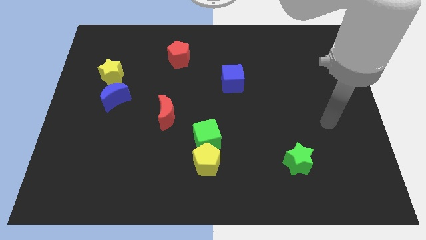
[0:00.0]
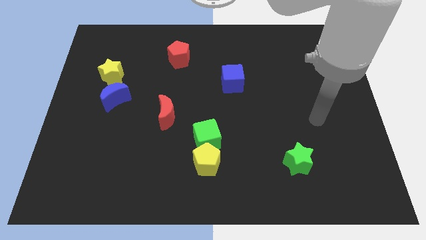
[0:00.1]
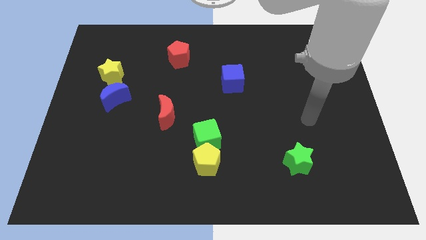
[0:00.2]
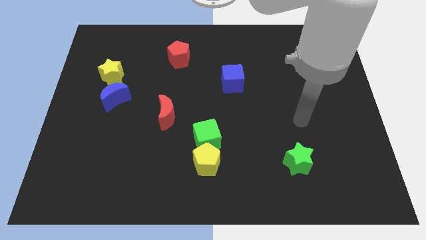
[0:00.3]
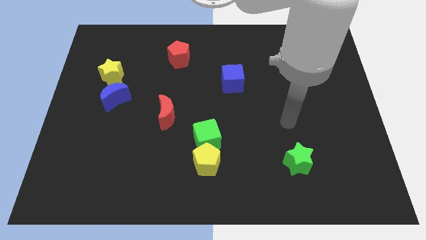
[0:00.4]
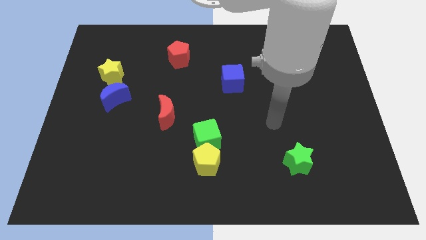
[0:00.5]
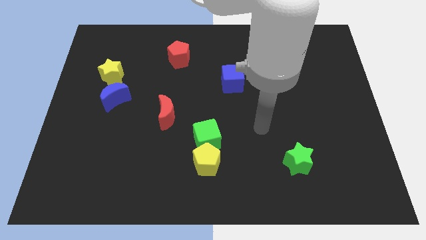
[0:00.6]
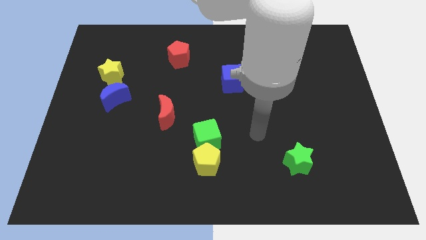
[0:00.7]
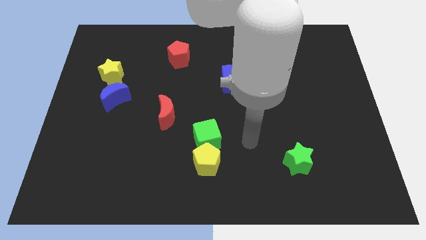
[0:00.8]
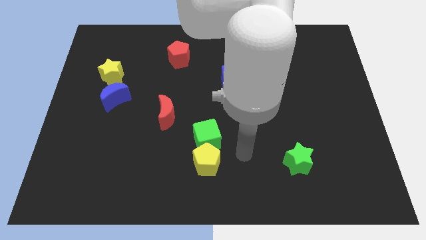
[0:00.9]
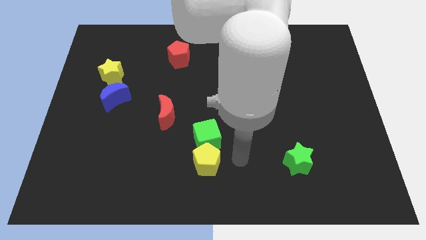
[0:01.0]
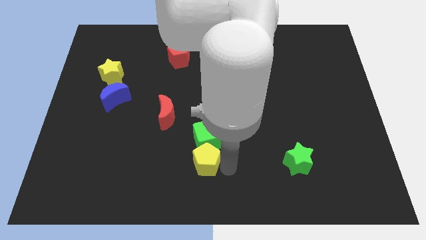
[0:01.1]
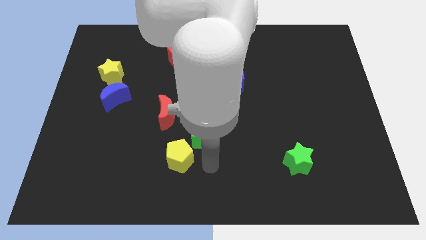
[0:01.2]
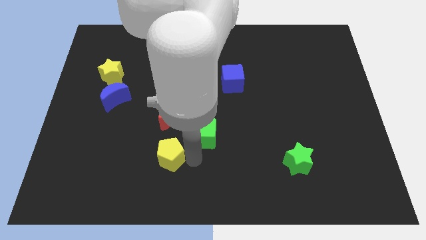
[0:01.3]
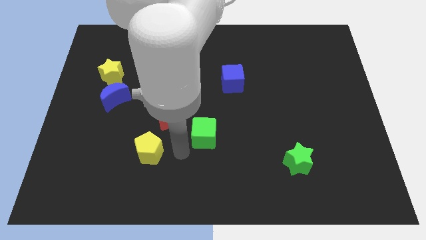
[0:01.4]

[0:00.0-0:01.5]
pull the green cube apart from the yellow pentagon

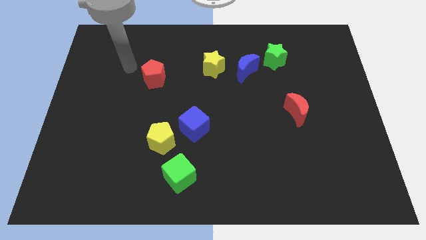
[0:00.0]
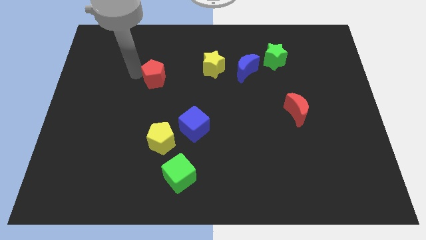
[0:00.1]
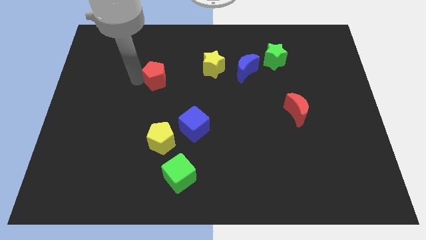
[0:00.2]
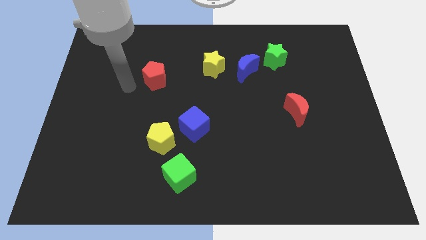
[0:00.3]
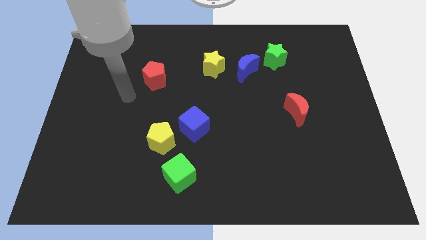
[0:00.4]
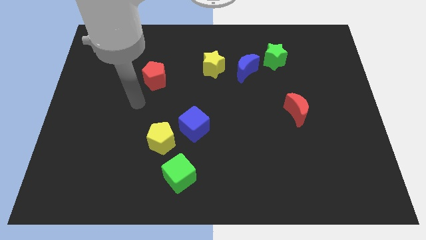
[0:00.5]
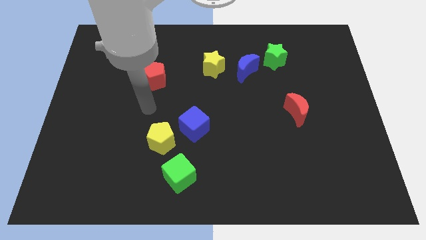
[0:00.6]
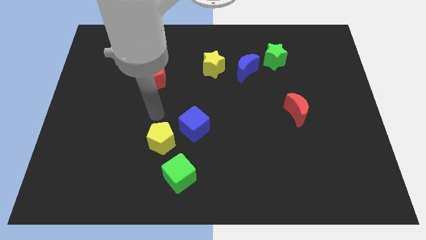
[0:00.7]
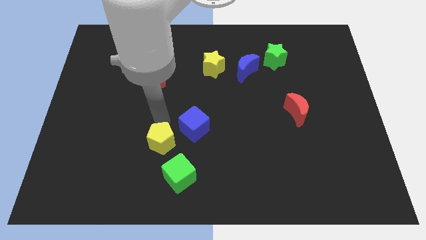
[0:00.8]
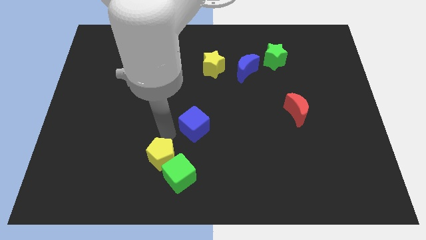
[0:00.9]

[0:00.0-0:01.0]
move the blue cube away from the yellow pentagon

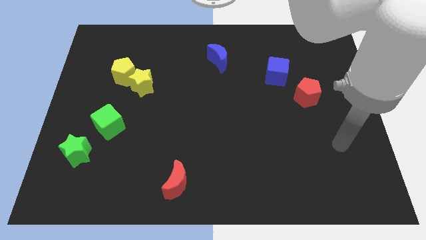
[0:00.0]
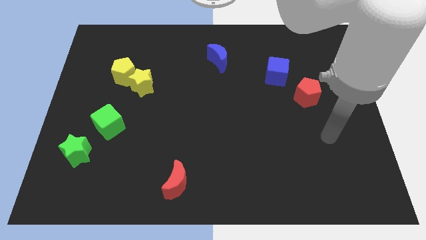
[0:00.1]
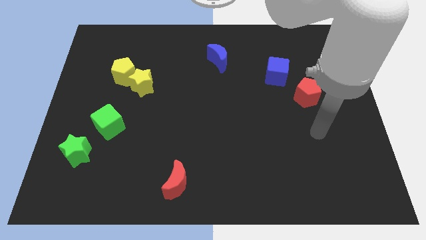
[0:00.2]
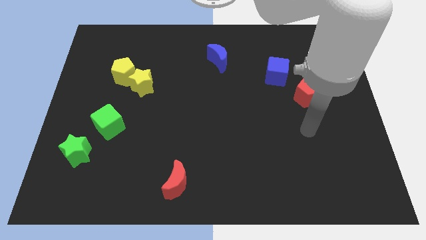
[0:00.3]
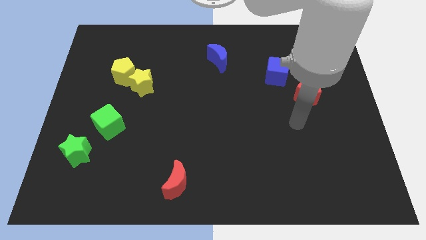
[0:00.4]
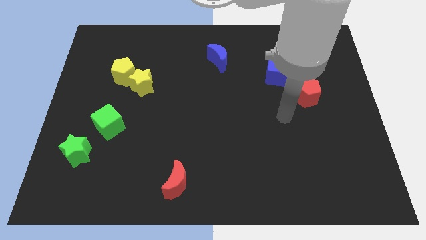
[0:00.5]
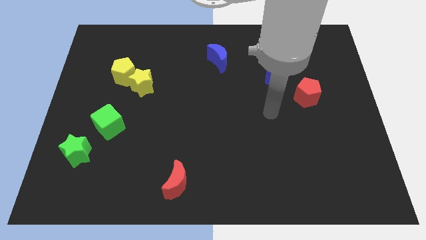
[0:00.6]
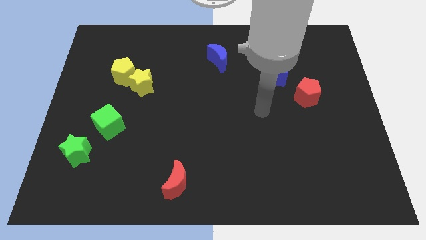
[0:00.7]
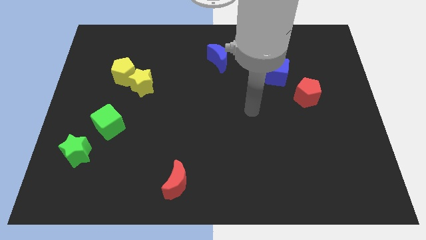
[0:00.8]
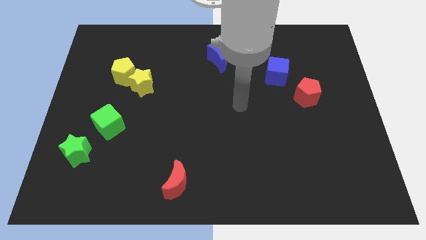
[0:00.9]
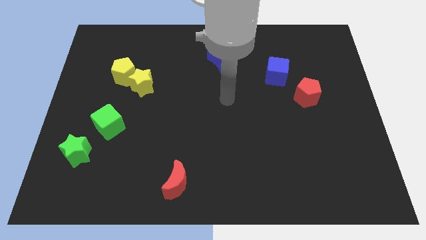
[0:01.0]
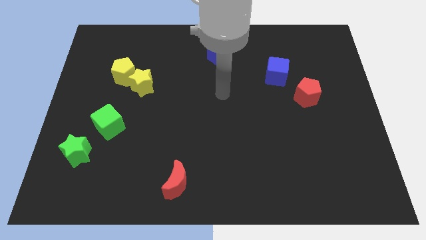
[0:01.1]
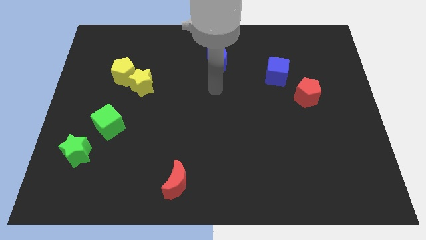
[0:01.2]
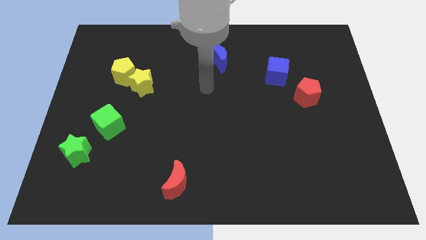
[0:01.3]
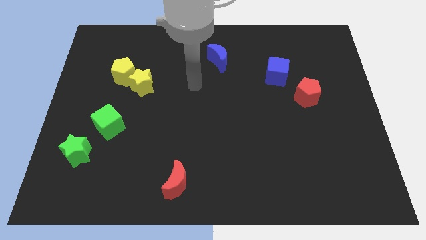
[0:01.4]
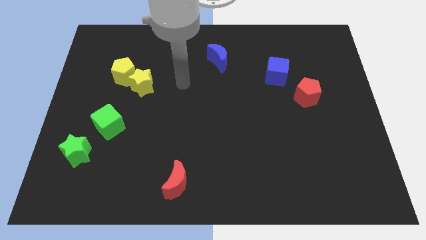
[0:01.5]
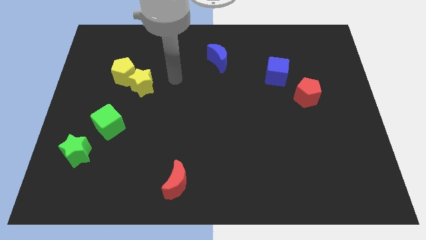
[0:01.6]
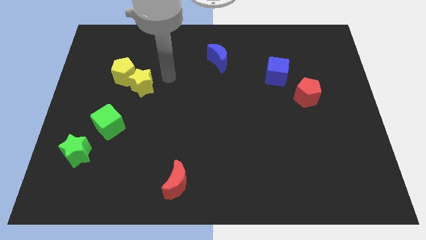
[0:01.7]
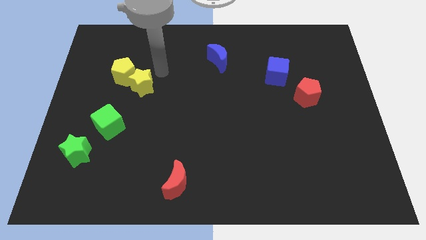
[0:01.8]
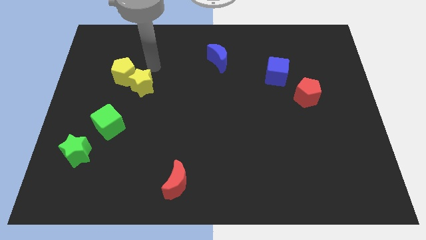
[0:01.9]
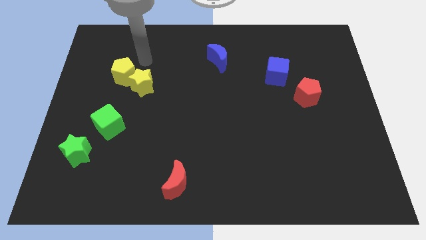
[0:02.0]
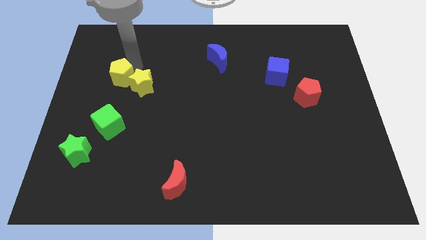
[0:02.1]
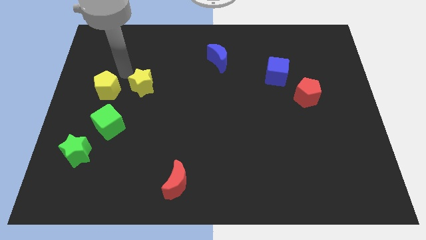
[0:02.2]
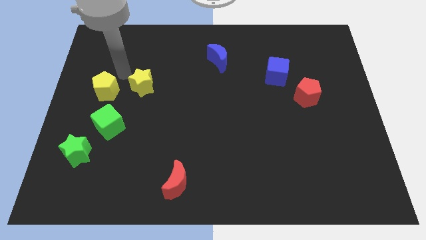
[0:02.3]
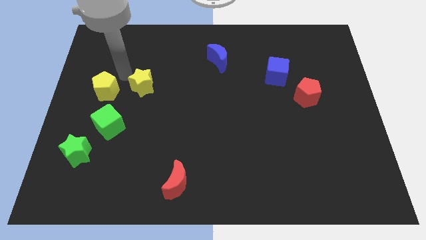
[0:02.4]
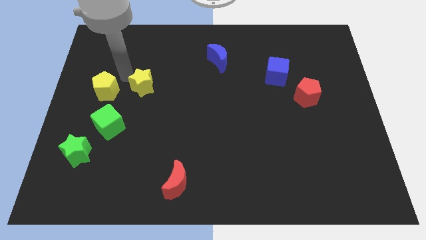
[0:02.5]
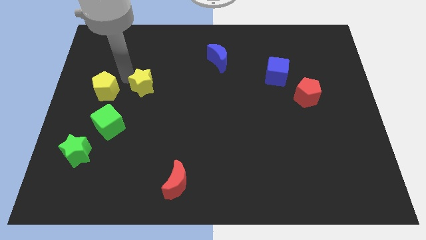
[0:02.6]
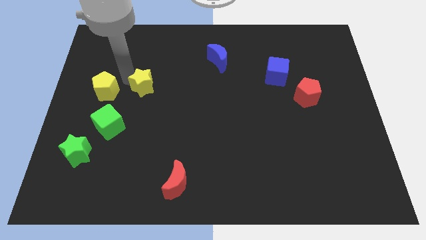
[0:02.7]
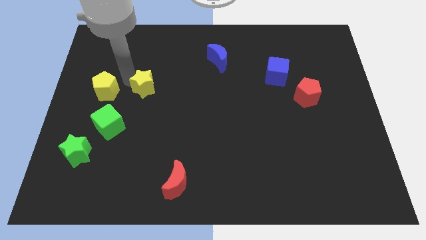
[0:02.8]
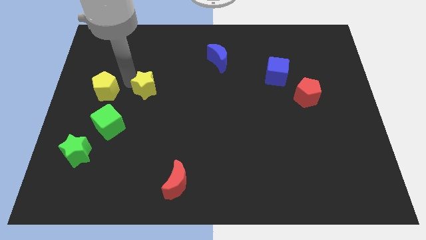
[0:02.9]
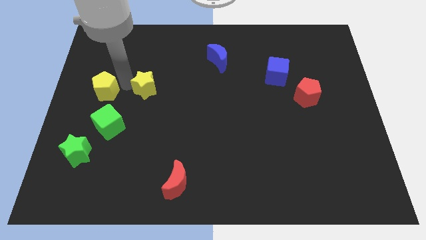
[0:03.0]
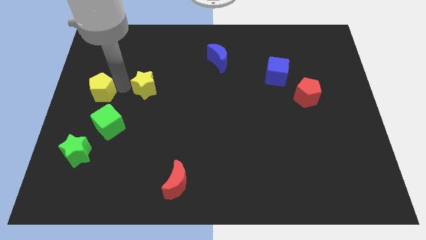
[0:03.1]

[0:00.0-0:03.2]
move the yellow star away from the yellow pentagon

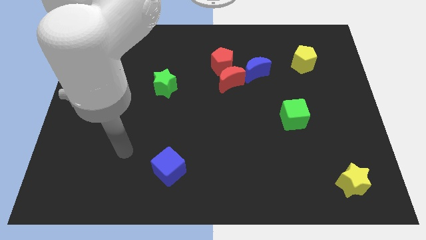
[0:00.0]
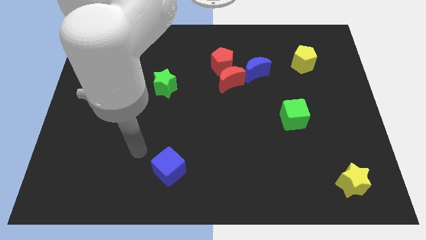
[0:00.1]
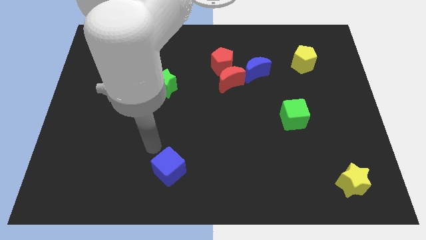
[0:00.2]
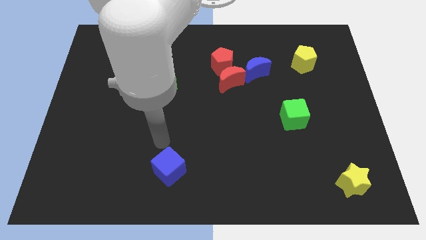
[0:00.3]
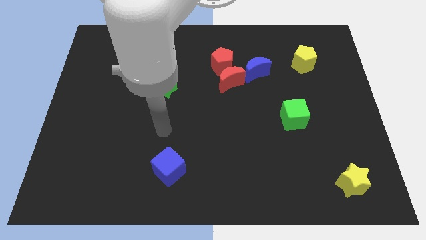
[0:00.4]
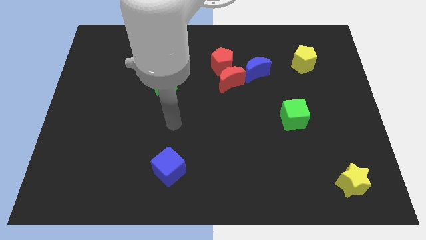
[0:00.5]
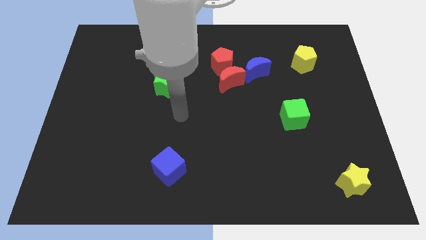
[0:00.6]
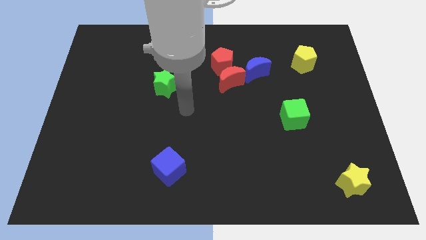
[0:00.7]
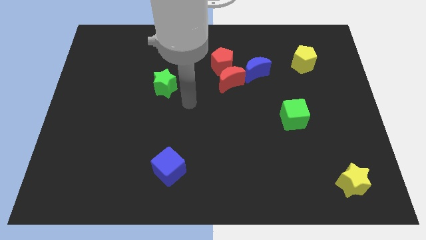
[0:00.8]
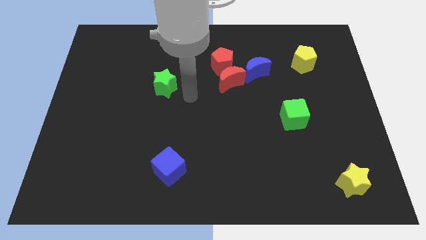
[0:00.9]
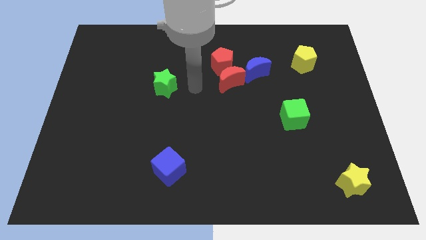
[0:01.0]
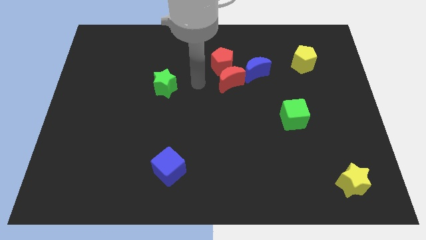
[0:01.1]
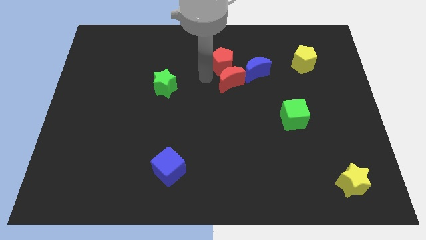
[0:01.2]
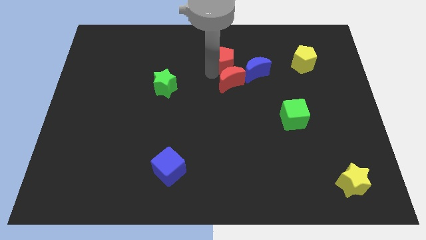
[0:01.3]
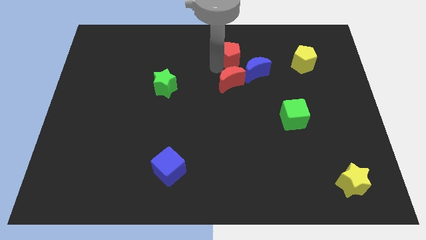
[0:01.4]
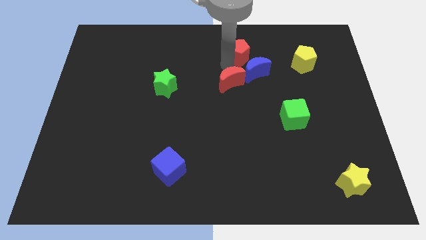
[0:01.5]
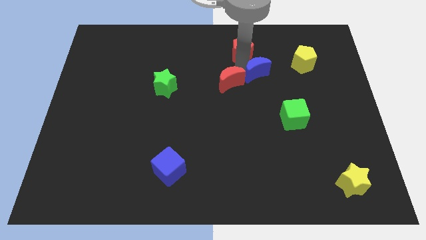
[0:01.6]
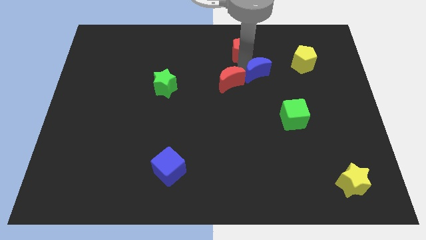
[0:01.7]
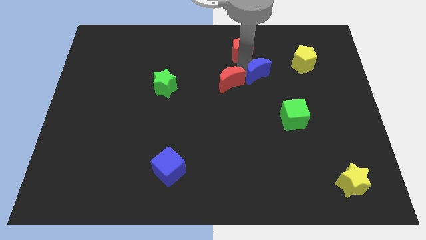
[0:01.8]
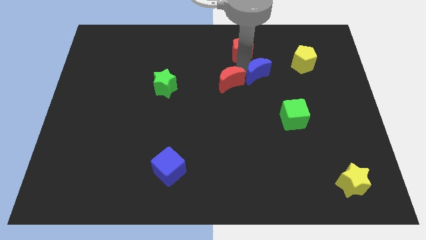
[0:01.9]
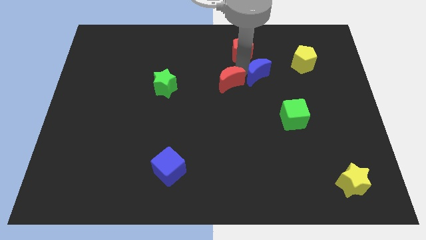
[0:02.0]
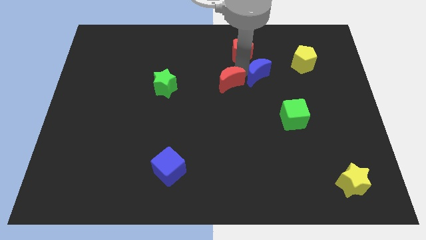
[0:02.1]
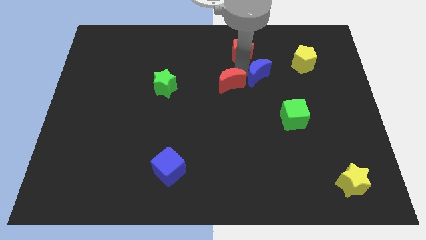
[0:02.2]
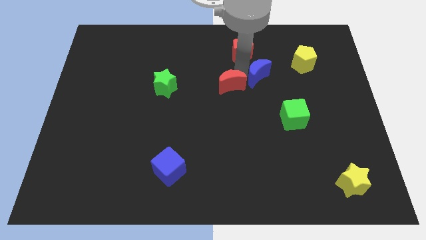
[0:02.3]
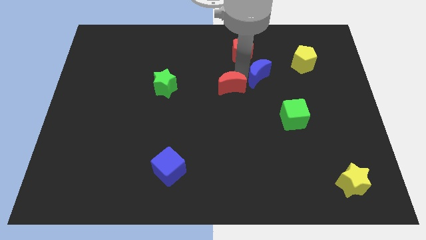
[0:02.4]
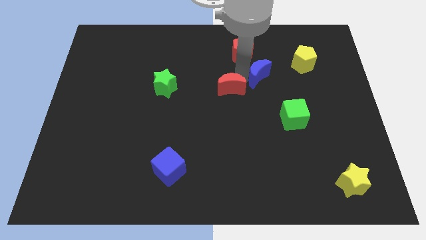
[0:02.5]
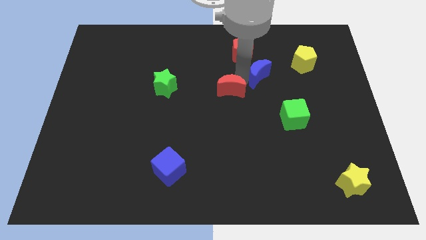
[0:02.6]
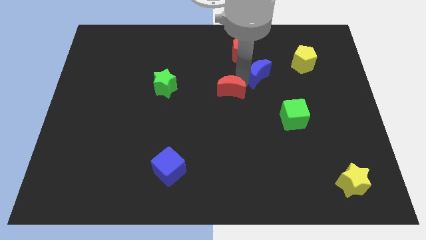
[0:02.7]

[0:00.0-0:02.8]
separate the red moon from the red pentagon and blue moon

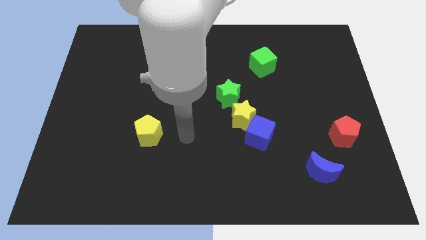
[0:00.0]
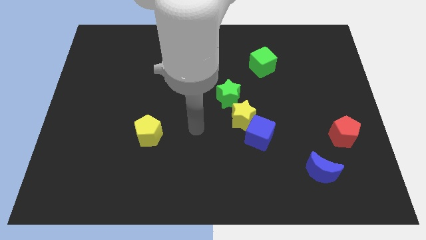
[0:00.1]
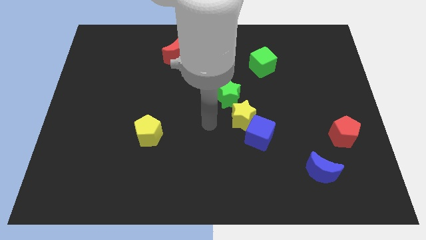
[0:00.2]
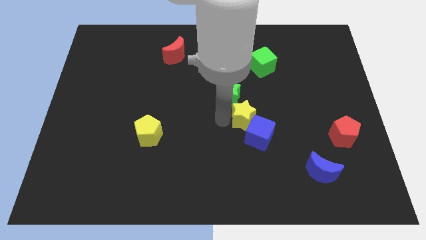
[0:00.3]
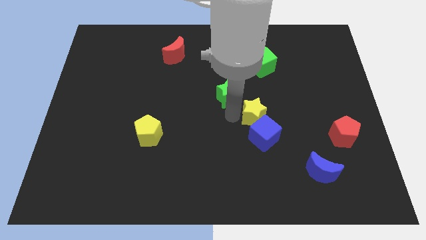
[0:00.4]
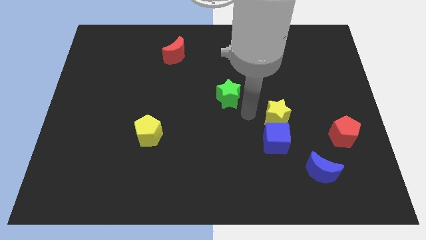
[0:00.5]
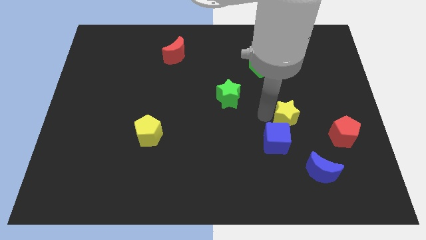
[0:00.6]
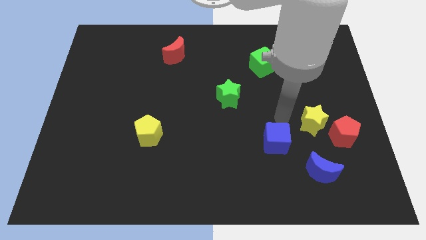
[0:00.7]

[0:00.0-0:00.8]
separate the blue cube from the yellow star
